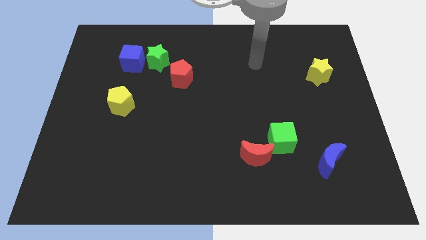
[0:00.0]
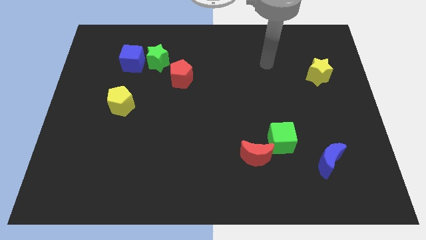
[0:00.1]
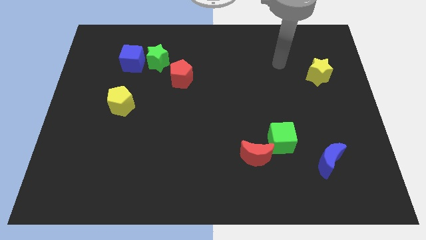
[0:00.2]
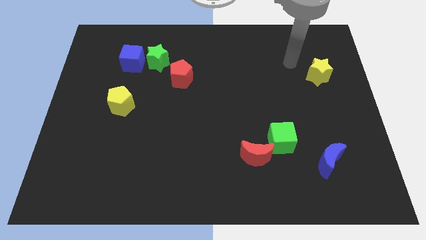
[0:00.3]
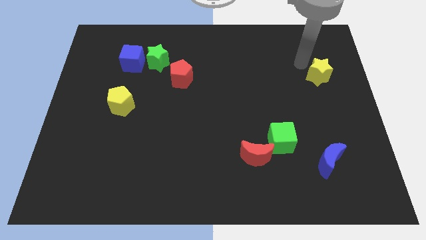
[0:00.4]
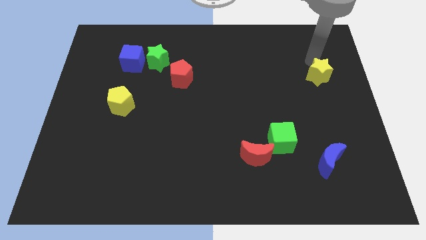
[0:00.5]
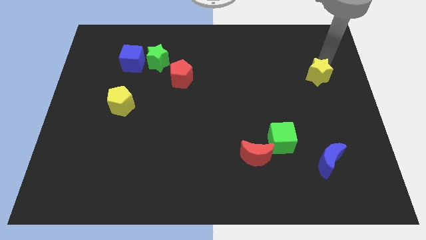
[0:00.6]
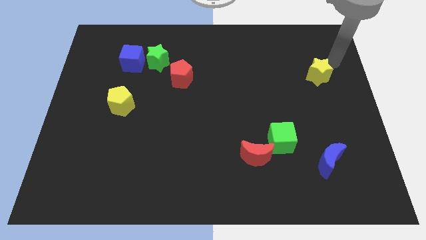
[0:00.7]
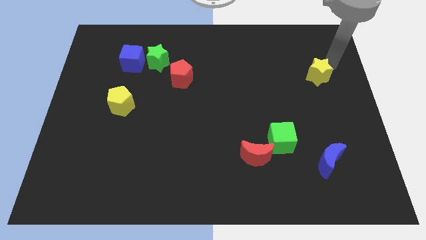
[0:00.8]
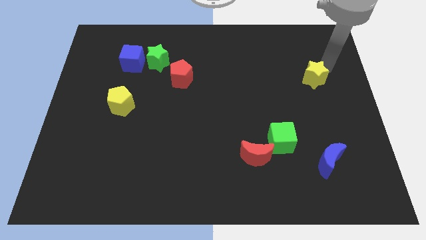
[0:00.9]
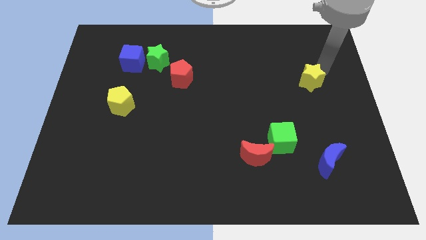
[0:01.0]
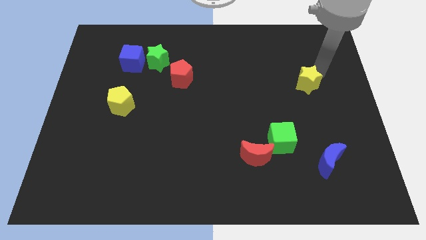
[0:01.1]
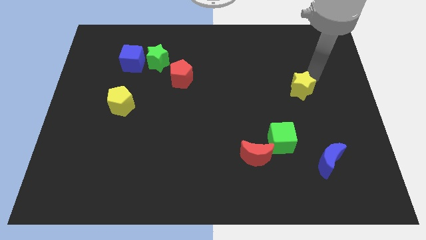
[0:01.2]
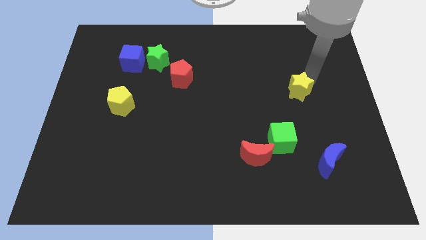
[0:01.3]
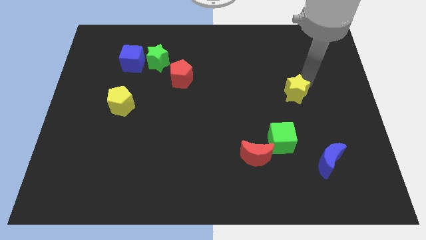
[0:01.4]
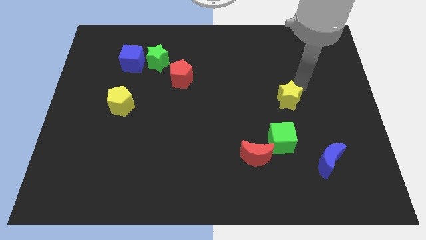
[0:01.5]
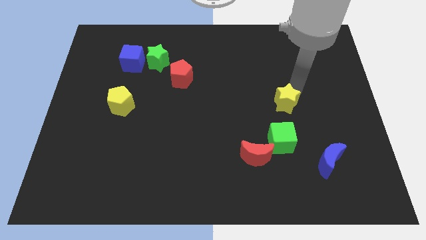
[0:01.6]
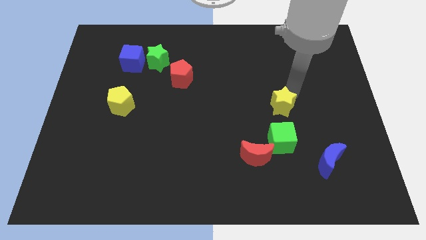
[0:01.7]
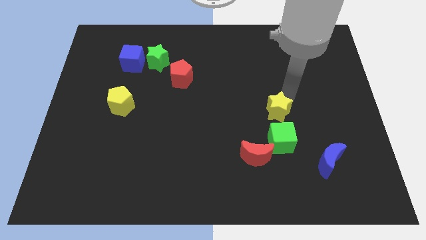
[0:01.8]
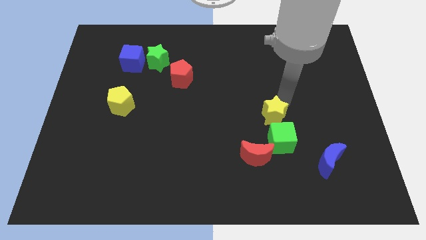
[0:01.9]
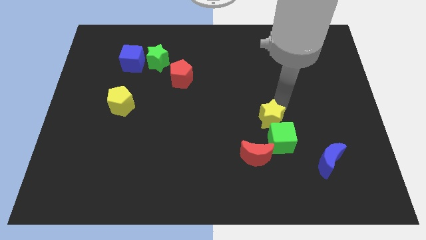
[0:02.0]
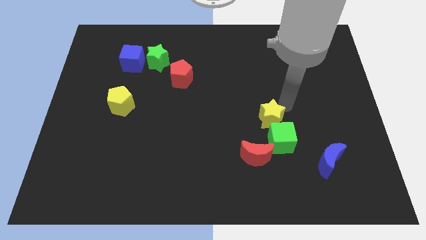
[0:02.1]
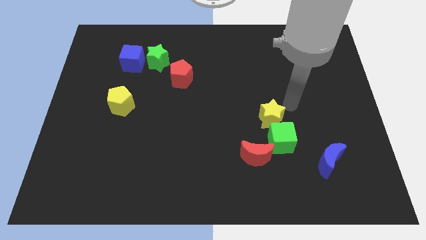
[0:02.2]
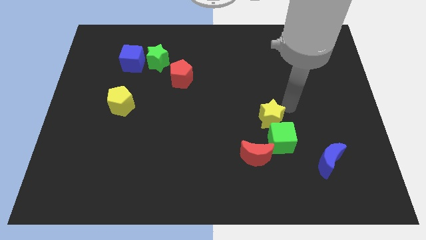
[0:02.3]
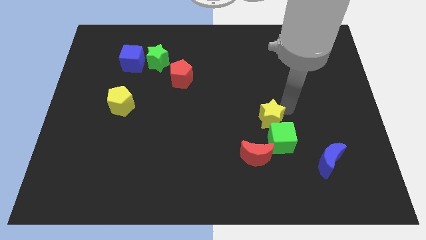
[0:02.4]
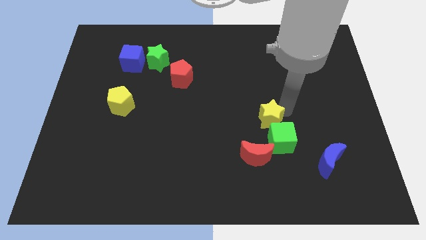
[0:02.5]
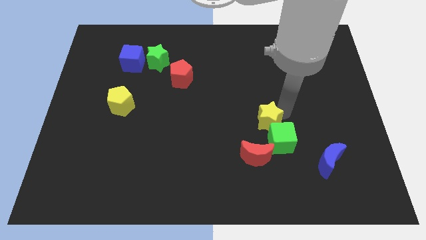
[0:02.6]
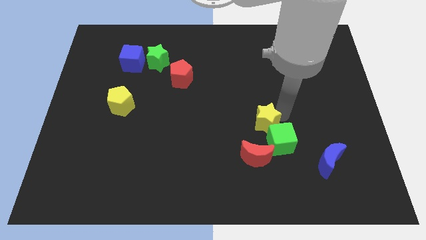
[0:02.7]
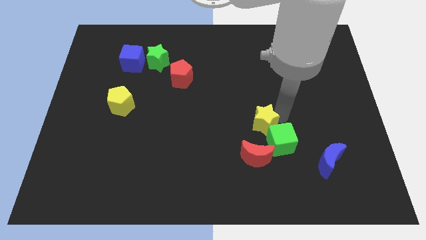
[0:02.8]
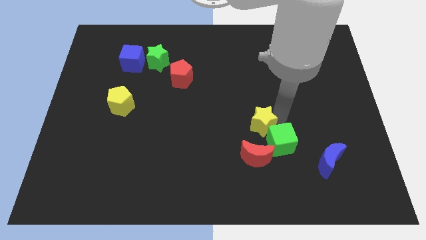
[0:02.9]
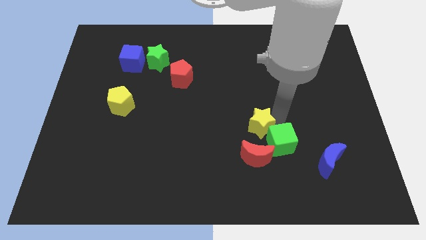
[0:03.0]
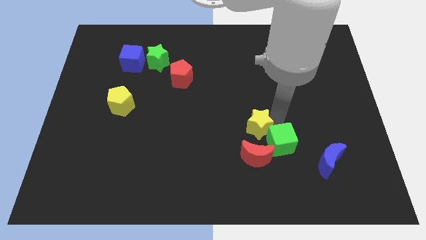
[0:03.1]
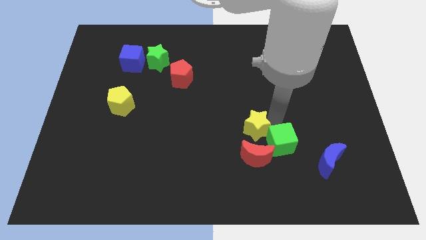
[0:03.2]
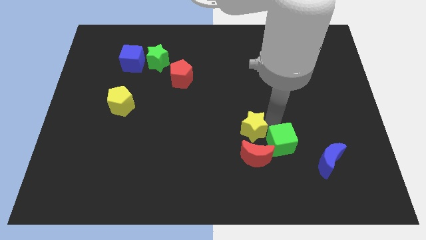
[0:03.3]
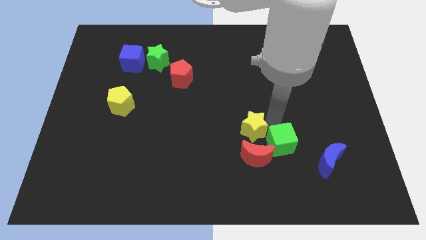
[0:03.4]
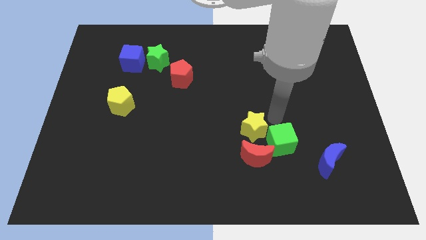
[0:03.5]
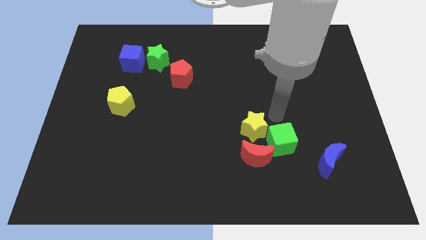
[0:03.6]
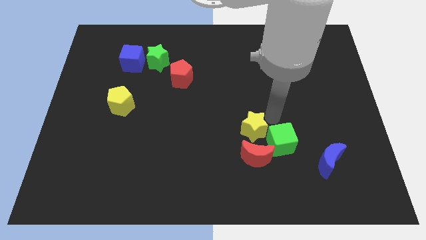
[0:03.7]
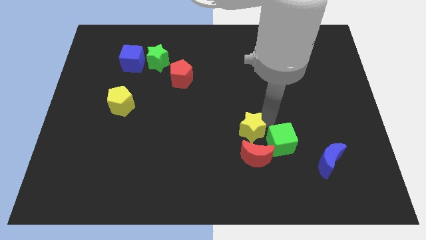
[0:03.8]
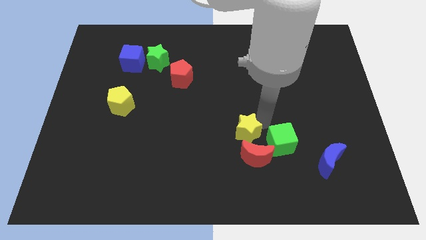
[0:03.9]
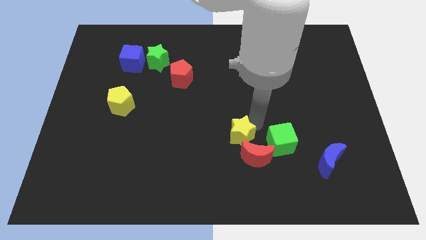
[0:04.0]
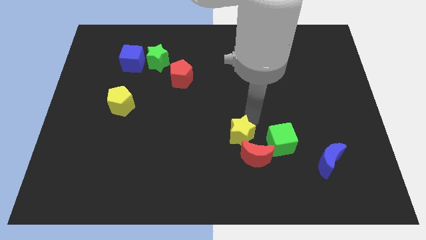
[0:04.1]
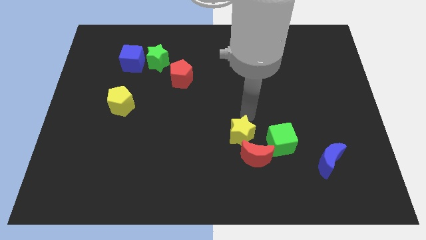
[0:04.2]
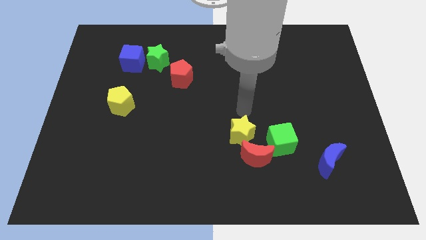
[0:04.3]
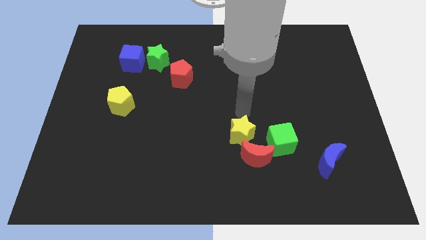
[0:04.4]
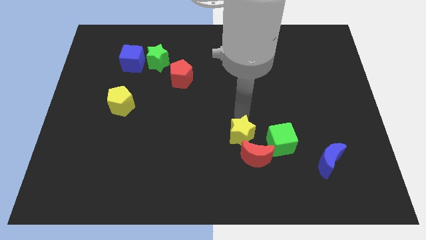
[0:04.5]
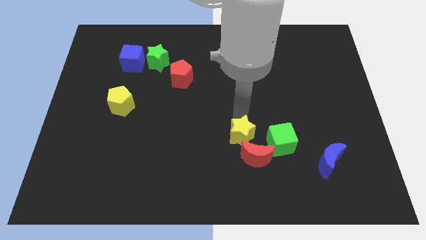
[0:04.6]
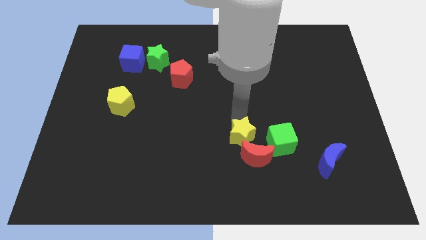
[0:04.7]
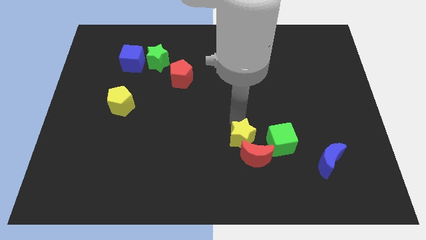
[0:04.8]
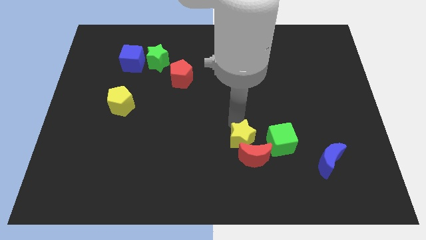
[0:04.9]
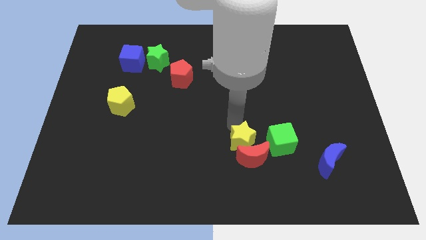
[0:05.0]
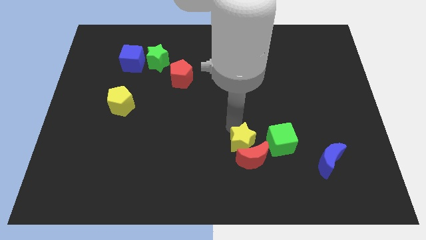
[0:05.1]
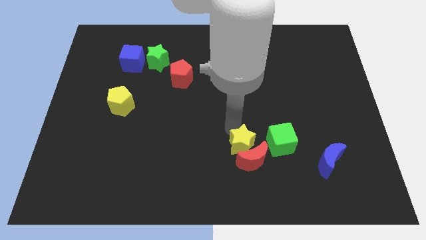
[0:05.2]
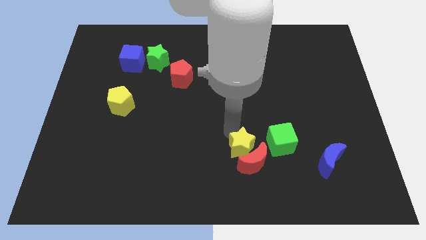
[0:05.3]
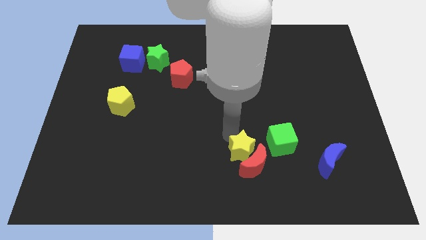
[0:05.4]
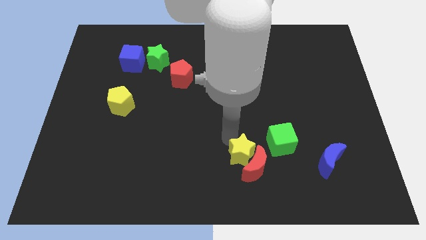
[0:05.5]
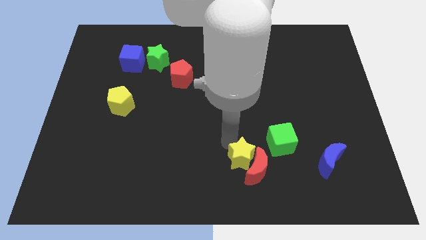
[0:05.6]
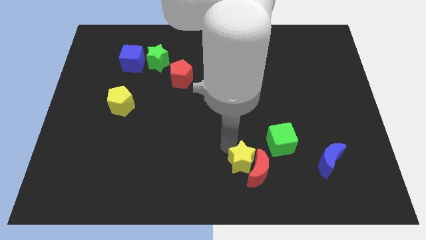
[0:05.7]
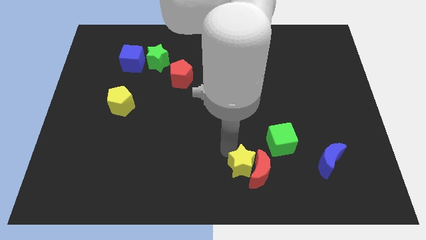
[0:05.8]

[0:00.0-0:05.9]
put the yellow star diagonally down and to the left of the red moon

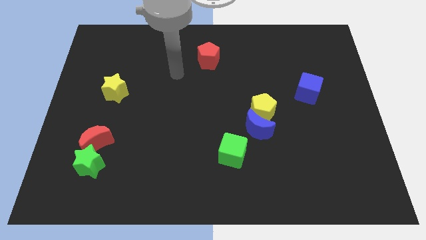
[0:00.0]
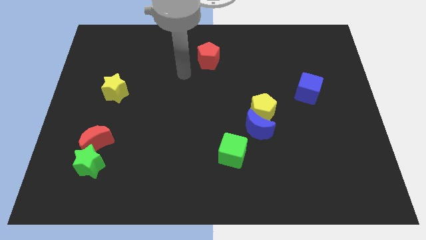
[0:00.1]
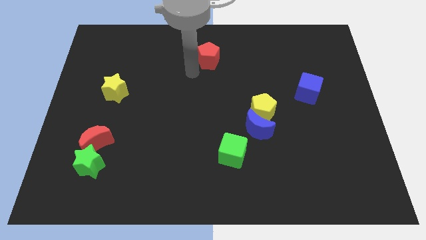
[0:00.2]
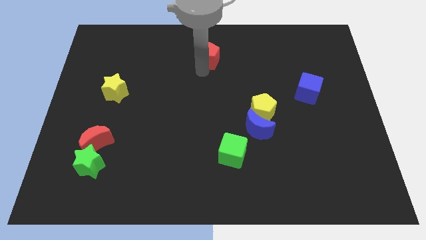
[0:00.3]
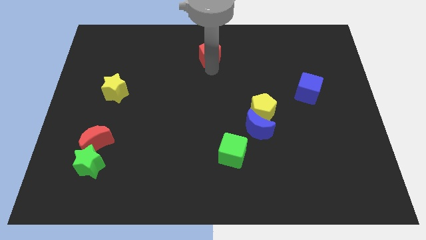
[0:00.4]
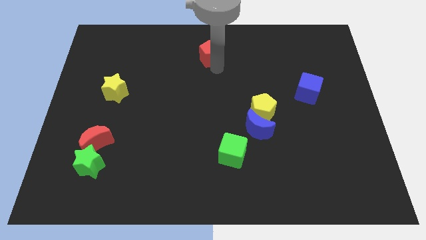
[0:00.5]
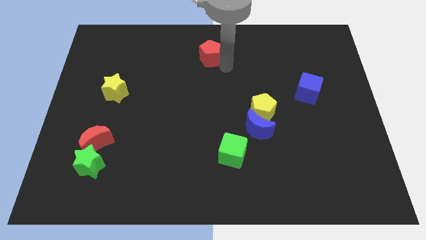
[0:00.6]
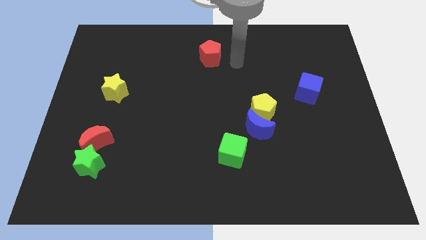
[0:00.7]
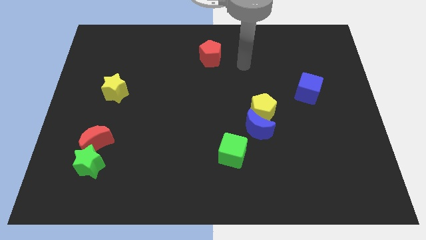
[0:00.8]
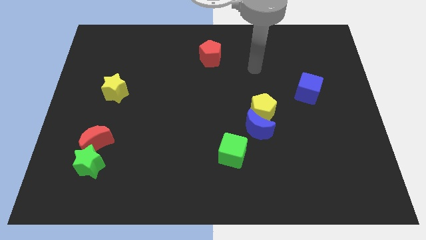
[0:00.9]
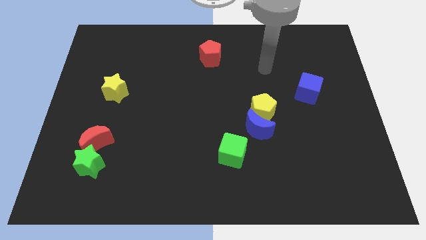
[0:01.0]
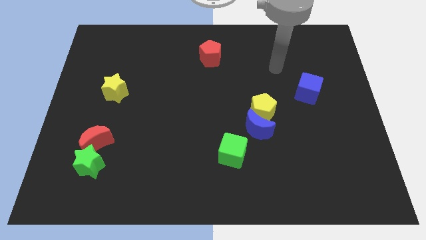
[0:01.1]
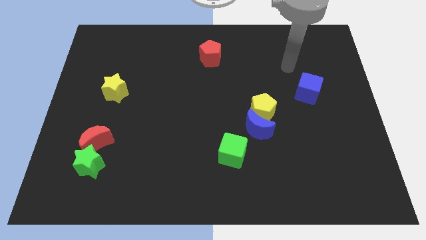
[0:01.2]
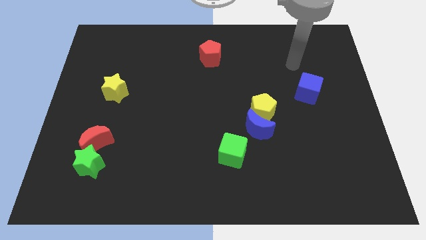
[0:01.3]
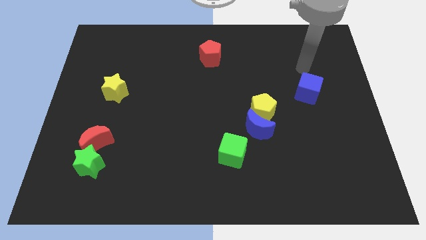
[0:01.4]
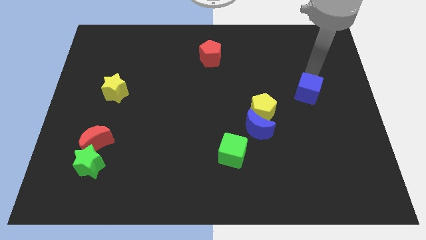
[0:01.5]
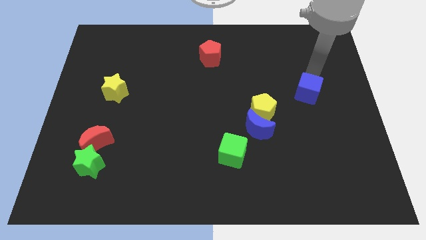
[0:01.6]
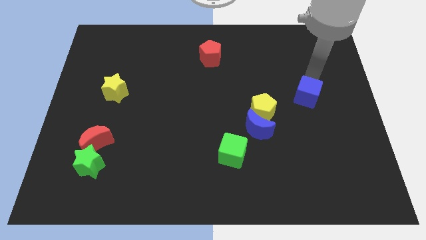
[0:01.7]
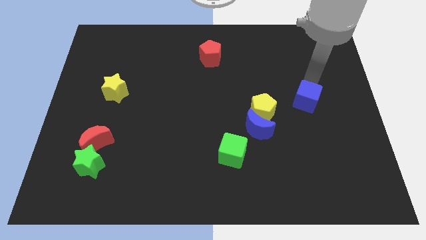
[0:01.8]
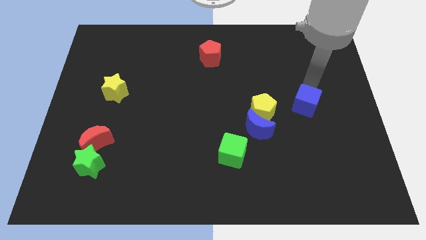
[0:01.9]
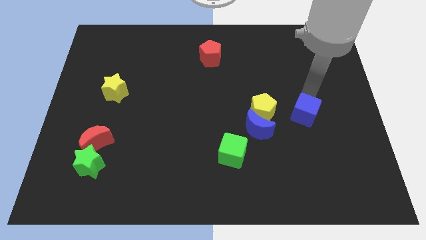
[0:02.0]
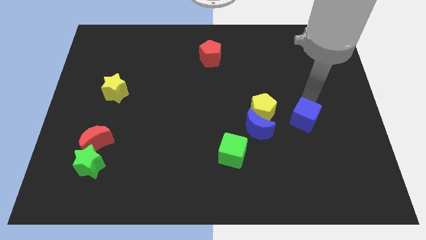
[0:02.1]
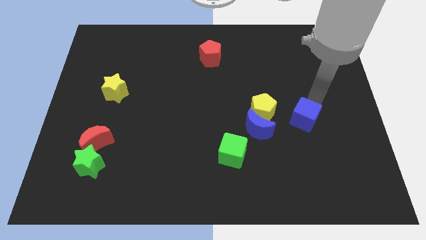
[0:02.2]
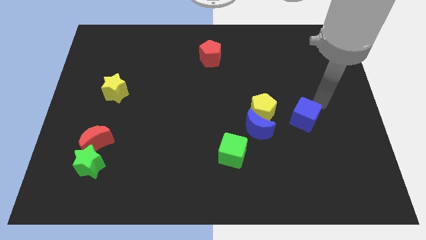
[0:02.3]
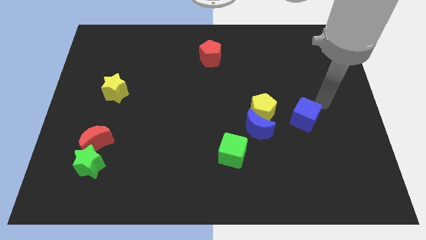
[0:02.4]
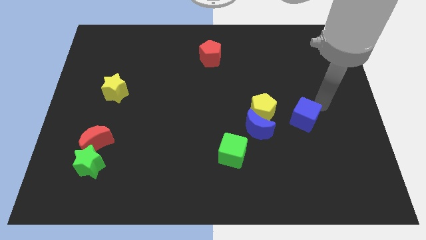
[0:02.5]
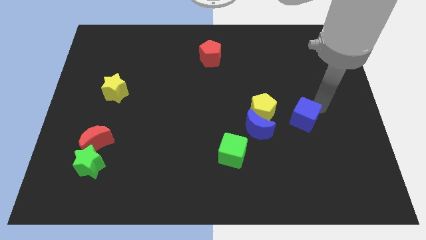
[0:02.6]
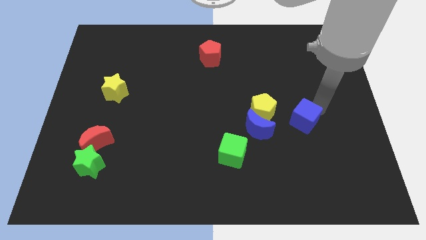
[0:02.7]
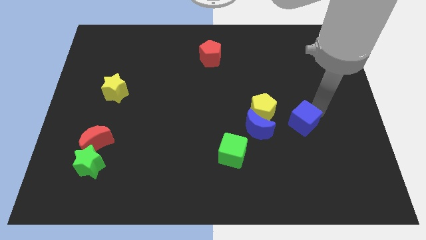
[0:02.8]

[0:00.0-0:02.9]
push the blue cube to the bottom right side of the yellow pentagon
